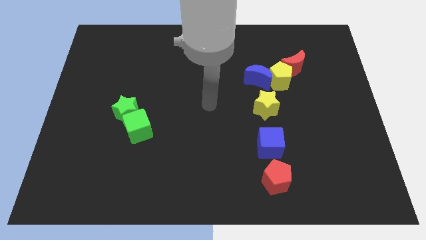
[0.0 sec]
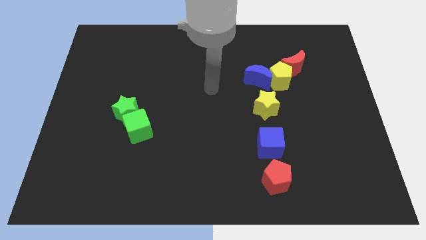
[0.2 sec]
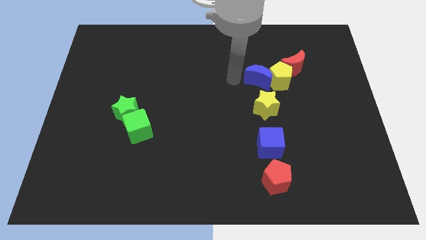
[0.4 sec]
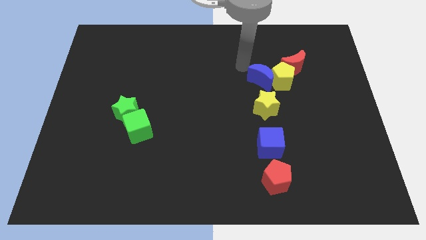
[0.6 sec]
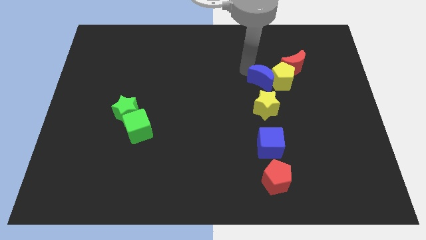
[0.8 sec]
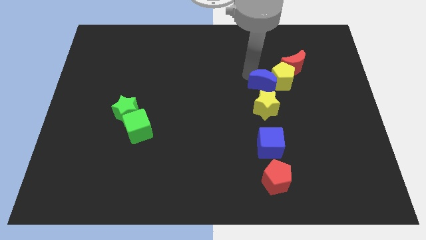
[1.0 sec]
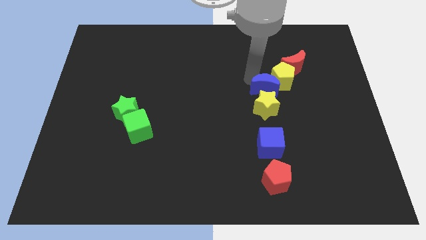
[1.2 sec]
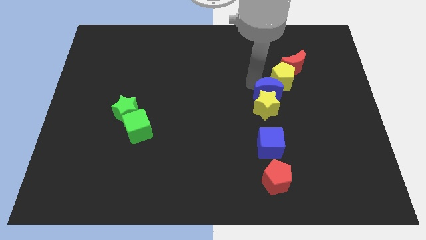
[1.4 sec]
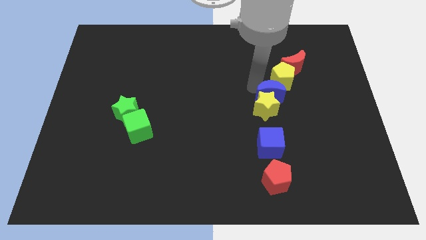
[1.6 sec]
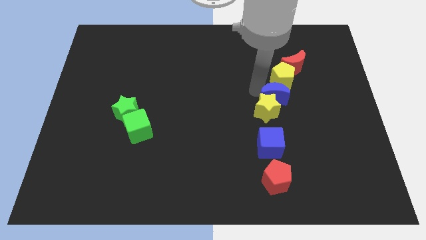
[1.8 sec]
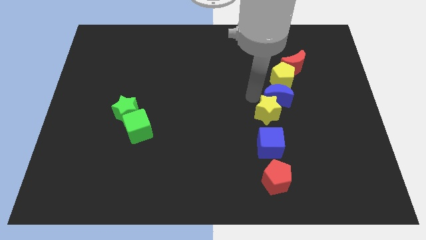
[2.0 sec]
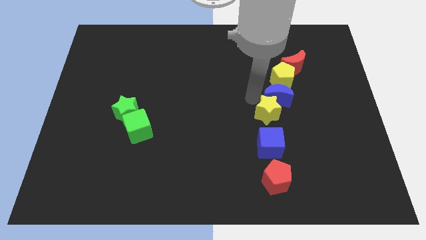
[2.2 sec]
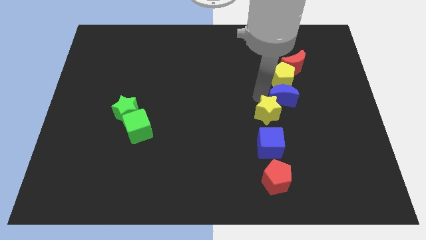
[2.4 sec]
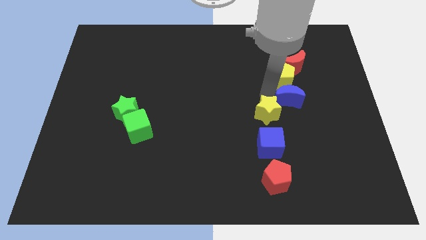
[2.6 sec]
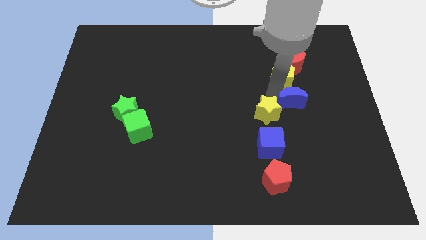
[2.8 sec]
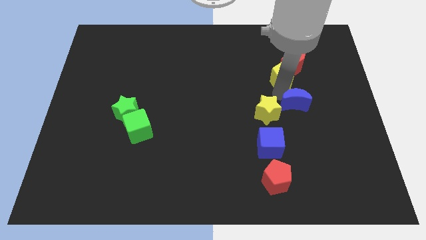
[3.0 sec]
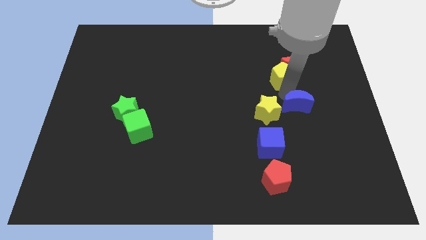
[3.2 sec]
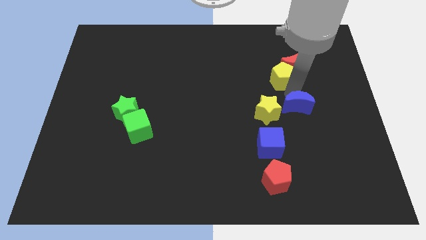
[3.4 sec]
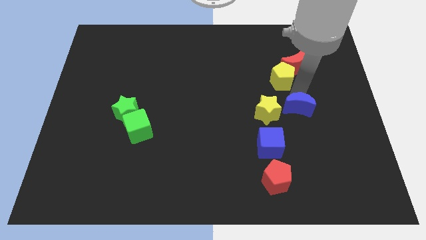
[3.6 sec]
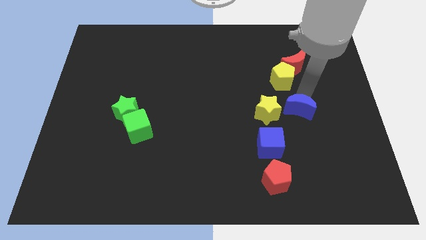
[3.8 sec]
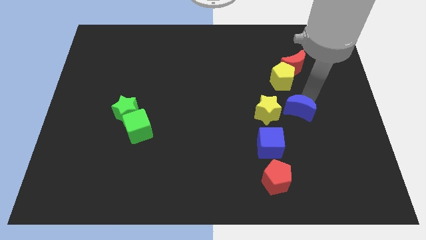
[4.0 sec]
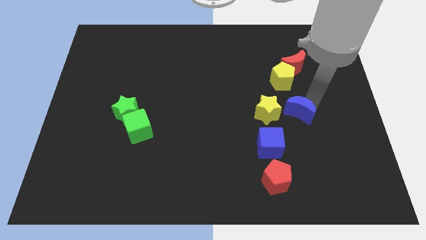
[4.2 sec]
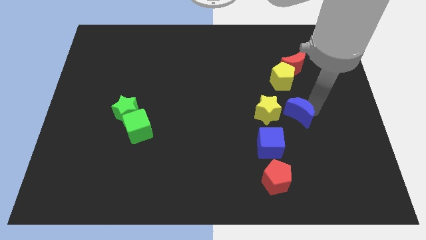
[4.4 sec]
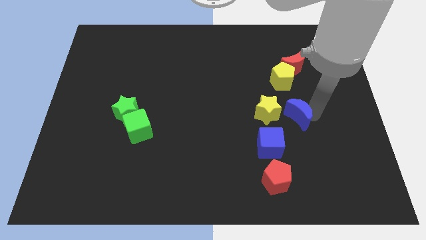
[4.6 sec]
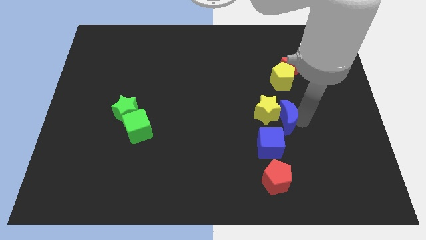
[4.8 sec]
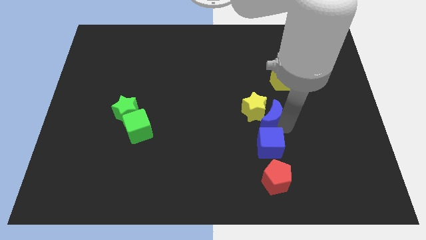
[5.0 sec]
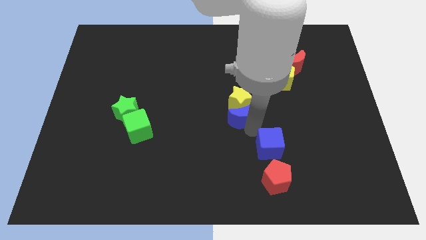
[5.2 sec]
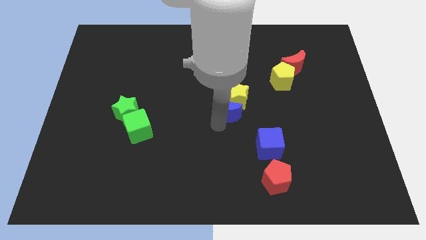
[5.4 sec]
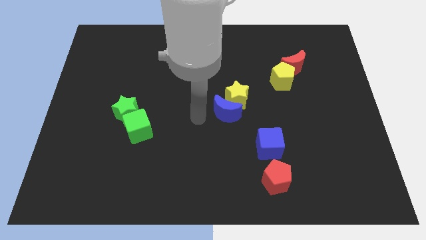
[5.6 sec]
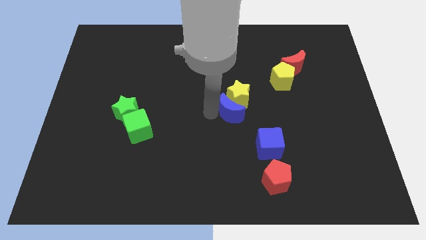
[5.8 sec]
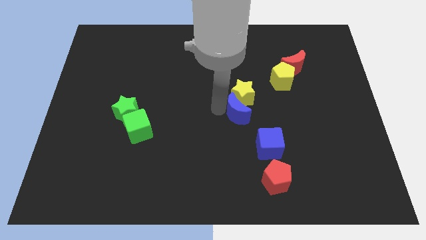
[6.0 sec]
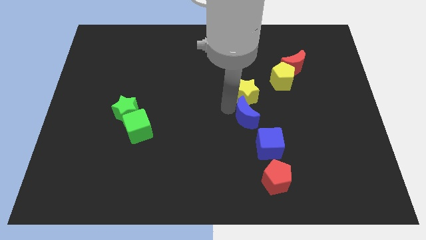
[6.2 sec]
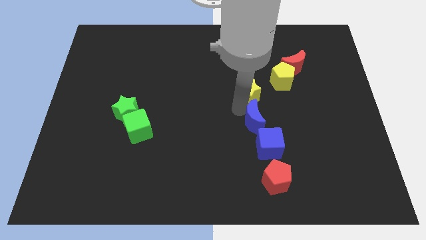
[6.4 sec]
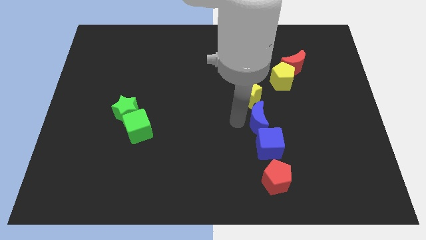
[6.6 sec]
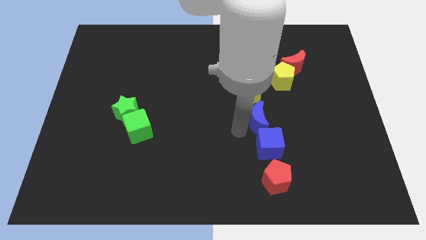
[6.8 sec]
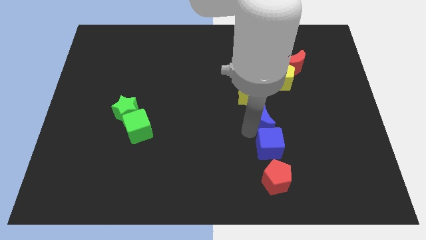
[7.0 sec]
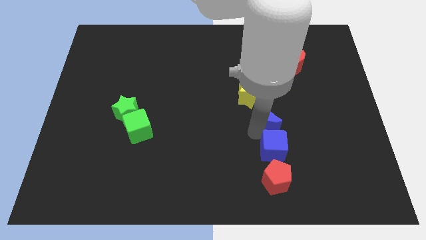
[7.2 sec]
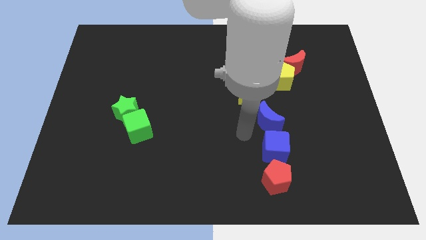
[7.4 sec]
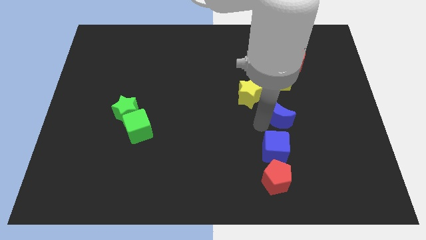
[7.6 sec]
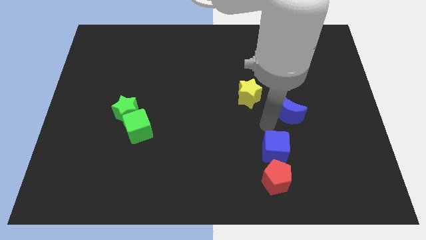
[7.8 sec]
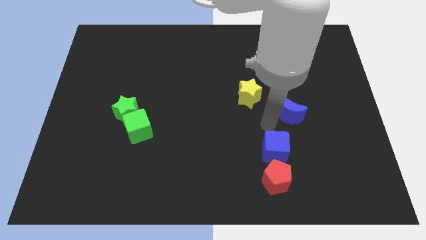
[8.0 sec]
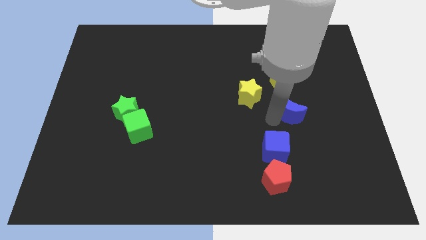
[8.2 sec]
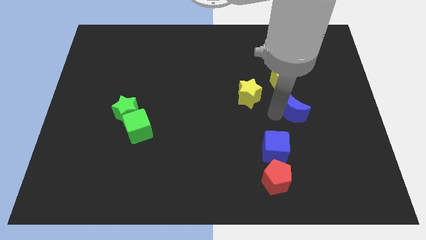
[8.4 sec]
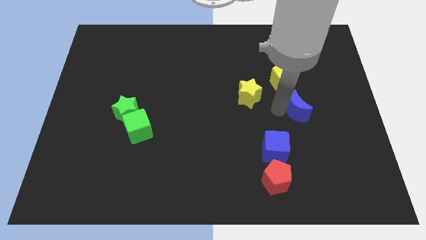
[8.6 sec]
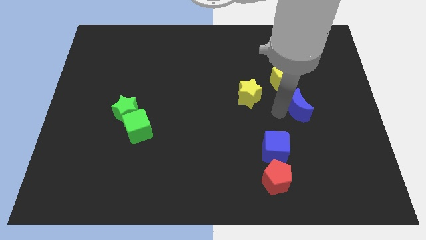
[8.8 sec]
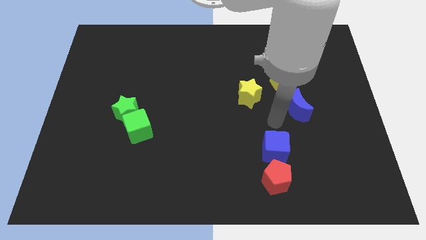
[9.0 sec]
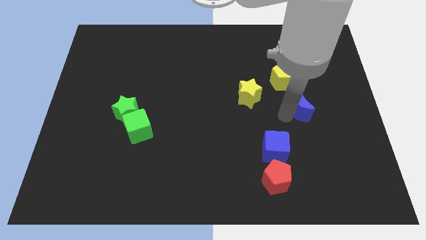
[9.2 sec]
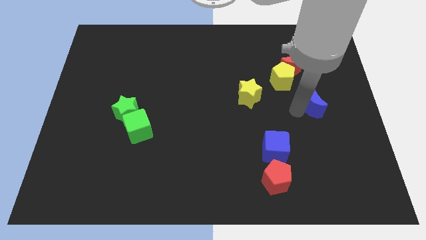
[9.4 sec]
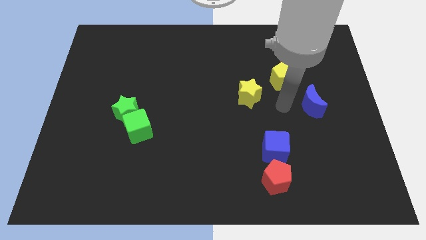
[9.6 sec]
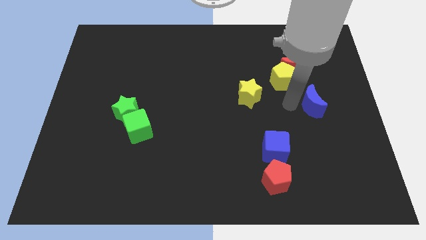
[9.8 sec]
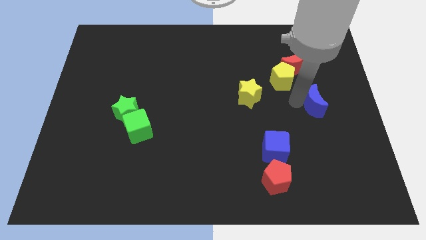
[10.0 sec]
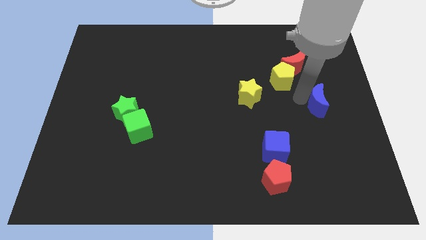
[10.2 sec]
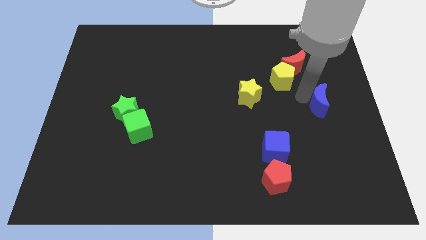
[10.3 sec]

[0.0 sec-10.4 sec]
push the blue moon to the center right

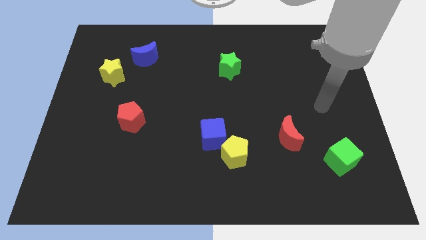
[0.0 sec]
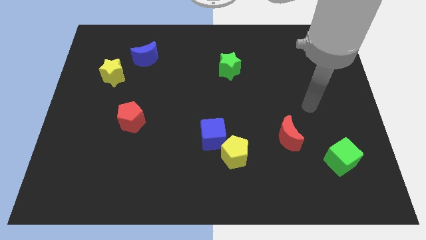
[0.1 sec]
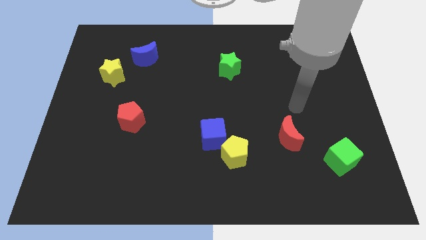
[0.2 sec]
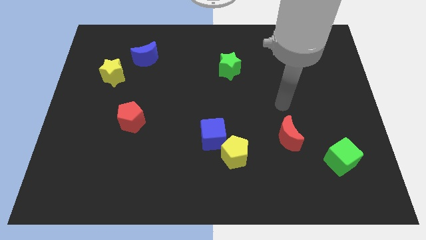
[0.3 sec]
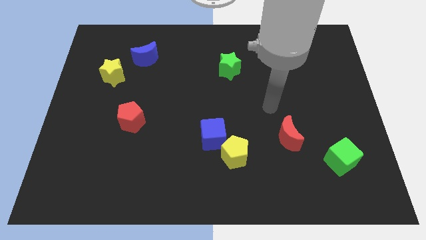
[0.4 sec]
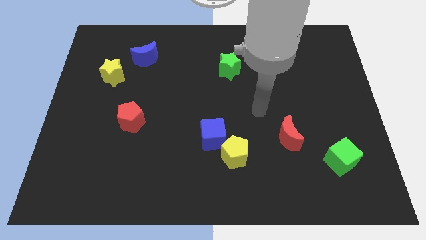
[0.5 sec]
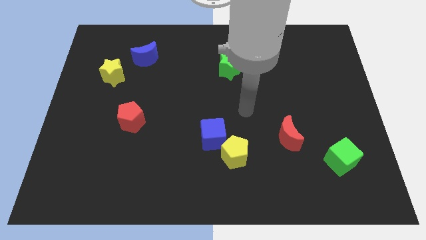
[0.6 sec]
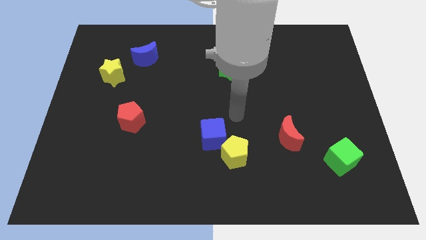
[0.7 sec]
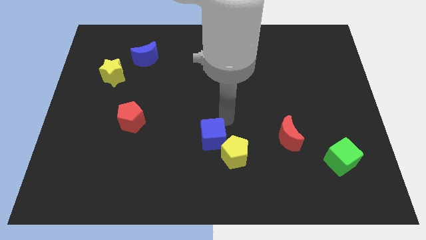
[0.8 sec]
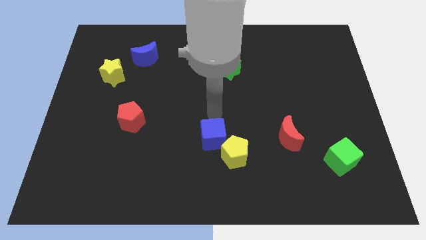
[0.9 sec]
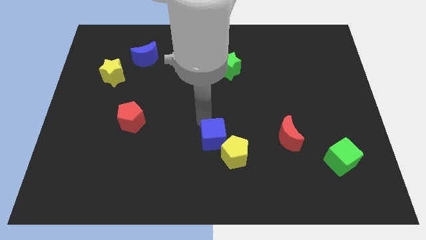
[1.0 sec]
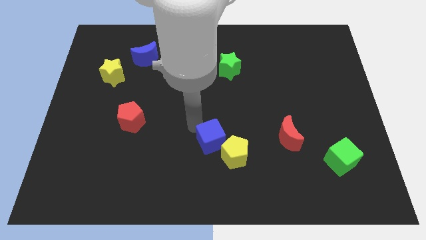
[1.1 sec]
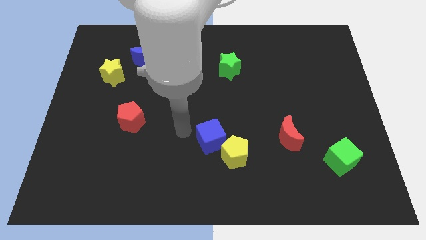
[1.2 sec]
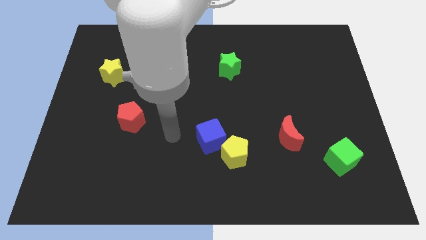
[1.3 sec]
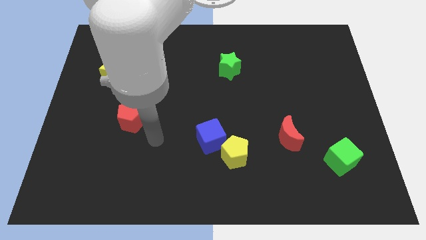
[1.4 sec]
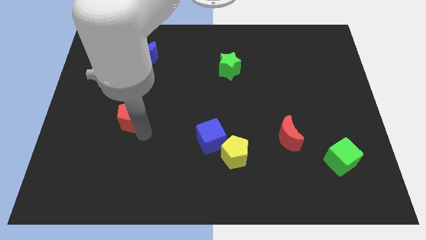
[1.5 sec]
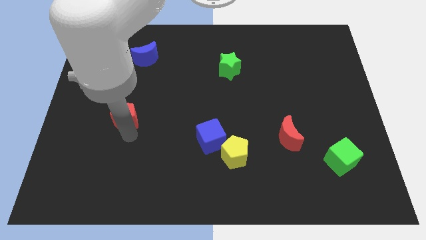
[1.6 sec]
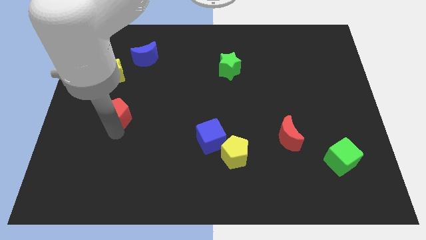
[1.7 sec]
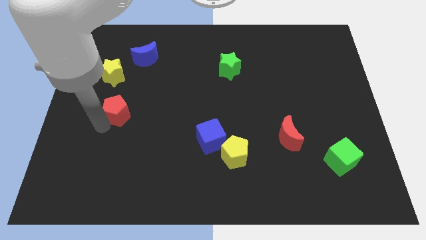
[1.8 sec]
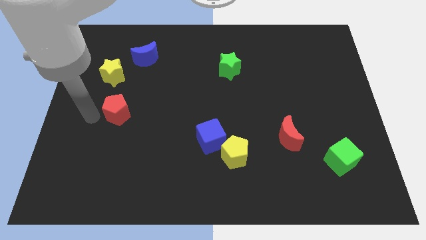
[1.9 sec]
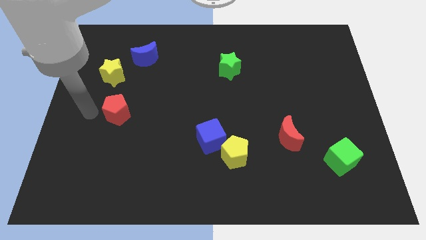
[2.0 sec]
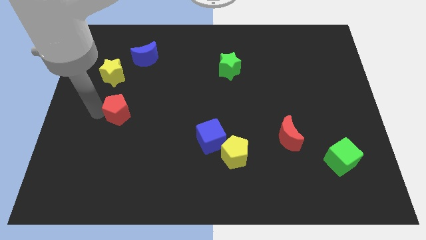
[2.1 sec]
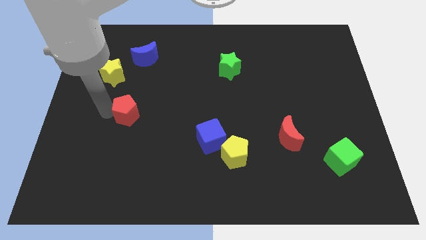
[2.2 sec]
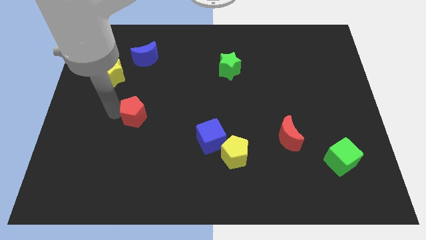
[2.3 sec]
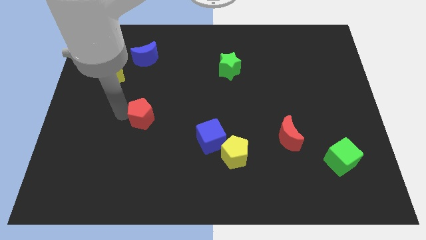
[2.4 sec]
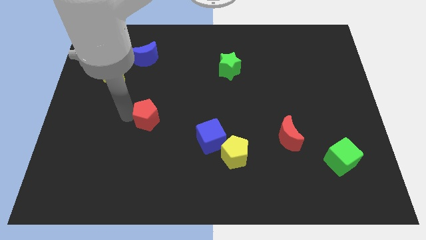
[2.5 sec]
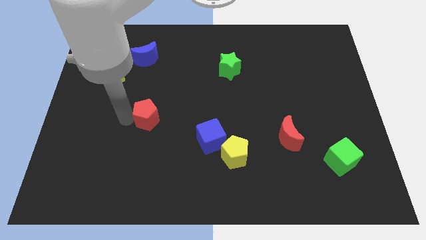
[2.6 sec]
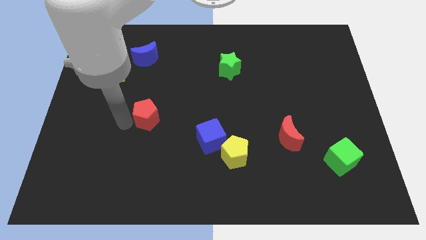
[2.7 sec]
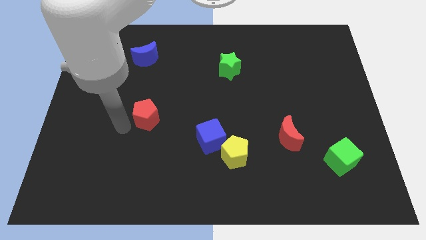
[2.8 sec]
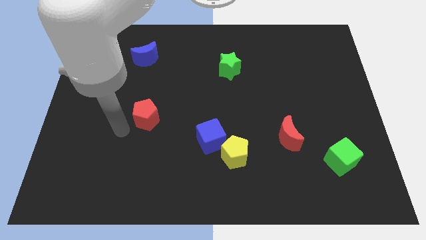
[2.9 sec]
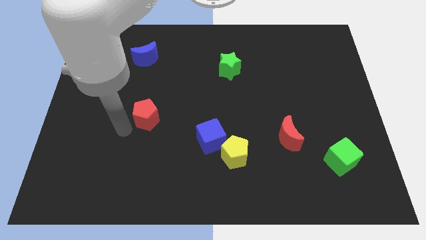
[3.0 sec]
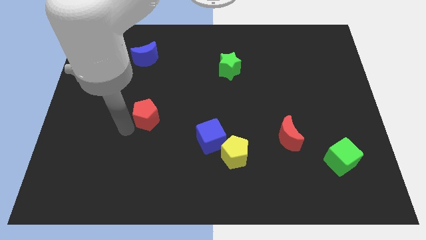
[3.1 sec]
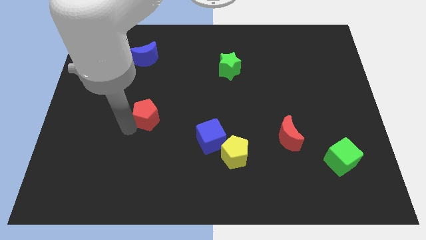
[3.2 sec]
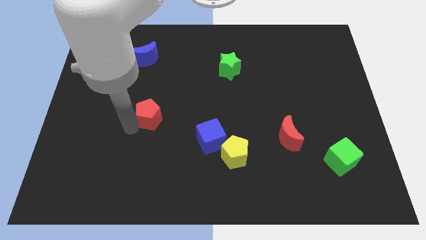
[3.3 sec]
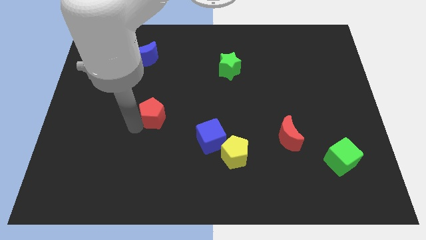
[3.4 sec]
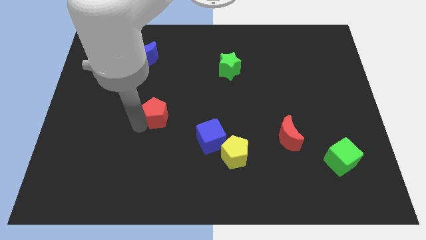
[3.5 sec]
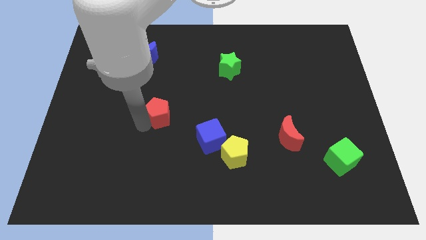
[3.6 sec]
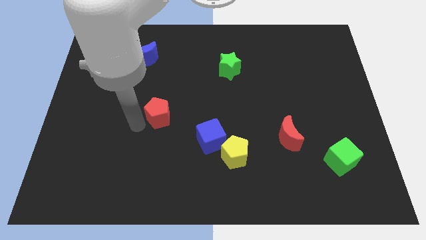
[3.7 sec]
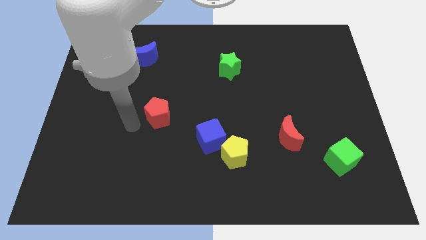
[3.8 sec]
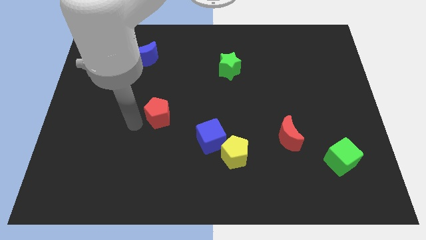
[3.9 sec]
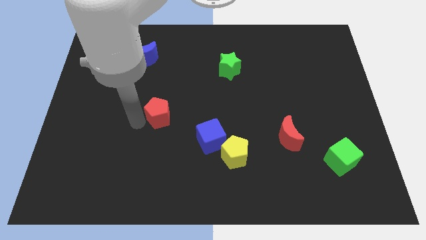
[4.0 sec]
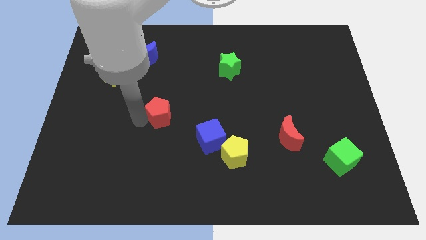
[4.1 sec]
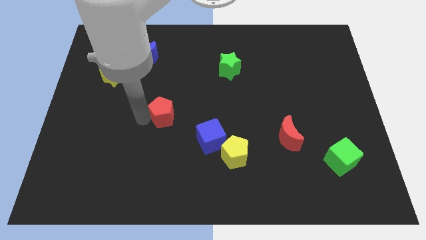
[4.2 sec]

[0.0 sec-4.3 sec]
put the red pentagon to the middle
